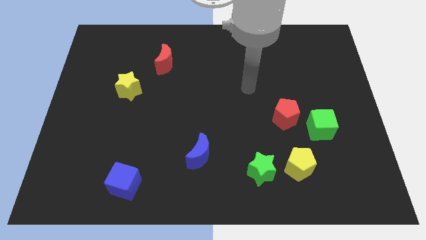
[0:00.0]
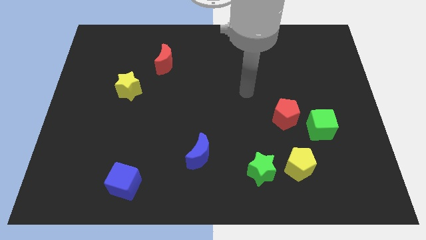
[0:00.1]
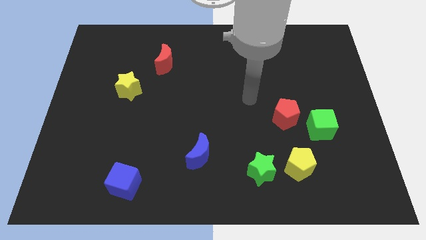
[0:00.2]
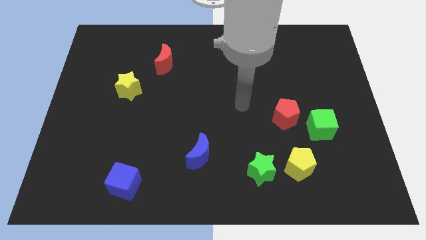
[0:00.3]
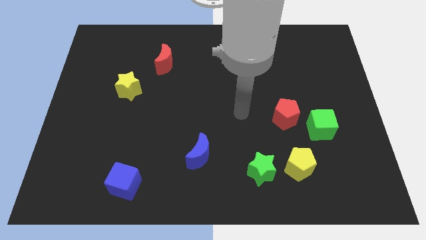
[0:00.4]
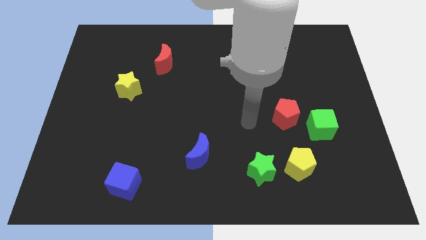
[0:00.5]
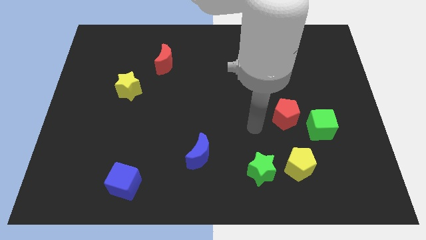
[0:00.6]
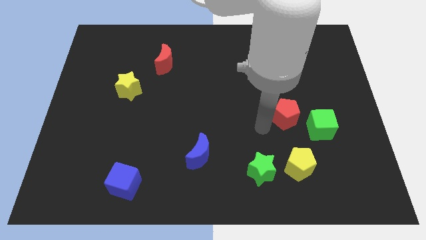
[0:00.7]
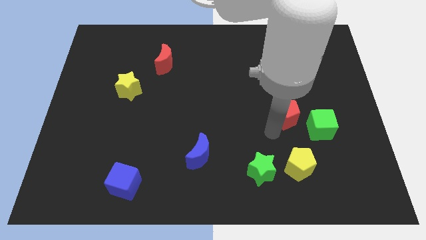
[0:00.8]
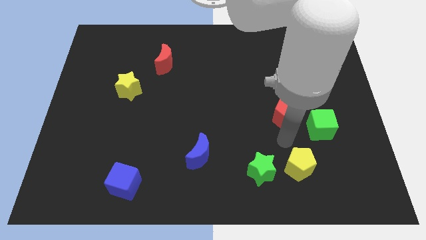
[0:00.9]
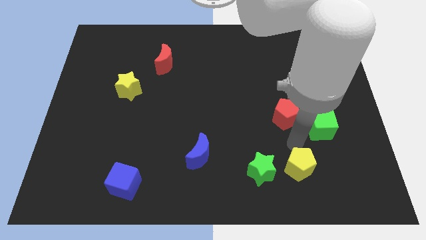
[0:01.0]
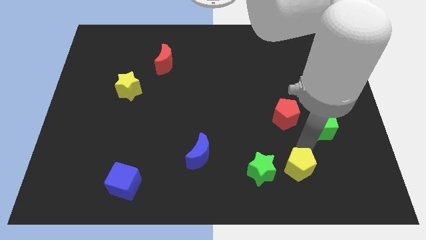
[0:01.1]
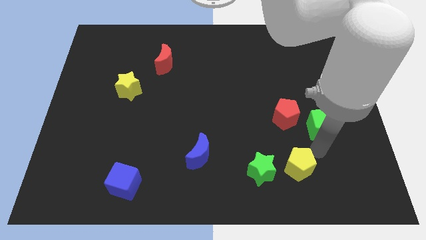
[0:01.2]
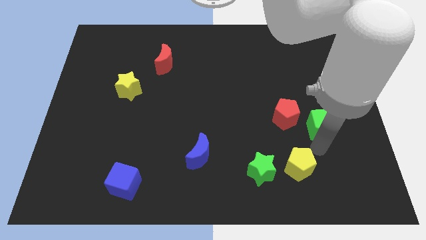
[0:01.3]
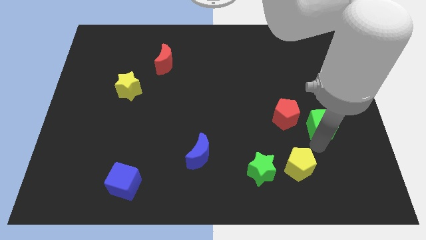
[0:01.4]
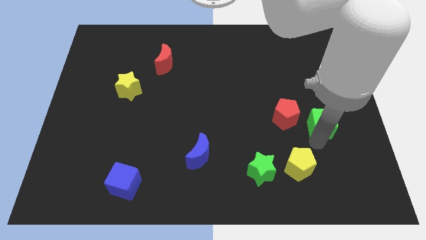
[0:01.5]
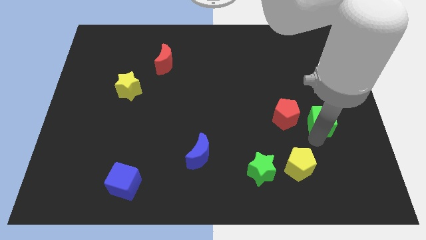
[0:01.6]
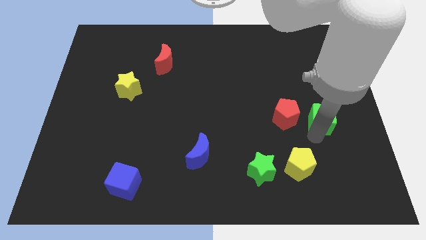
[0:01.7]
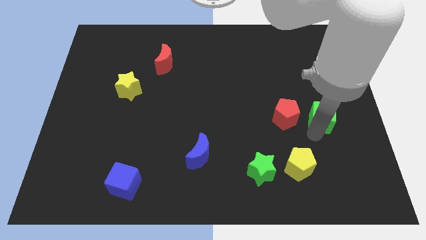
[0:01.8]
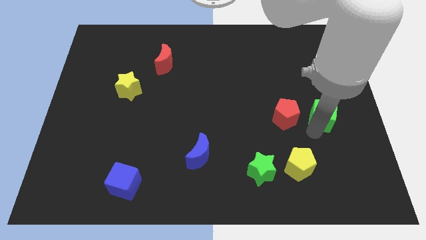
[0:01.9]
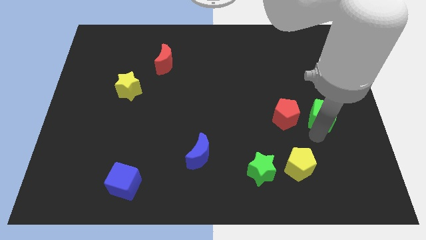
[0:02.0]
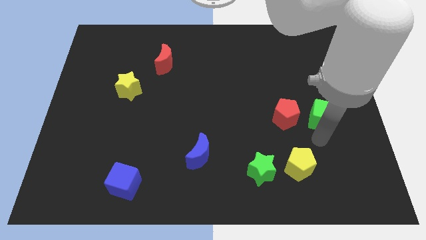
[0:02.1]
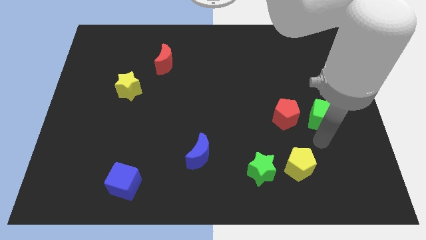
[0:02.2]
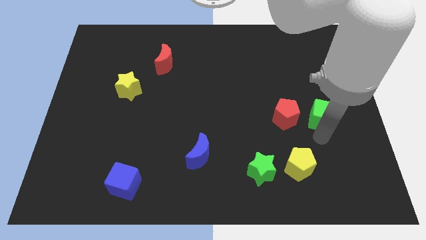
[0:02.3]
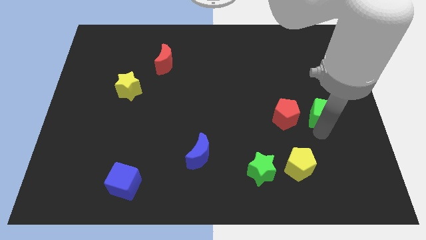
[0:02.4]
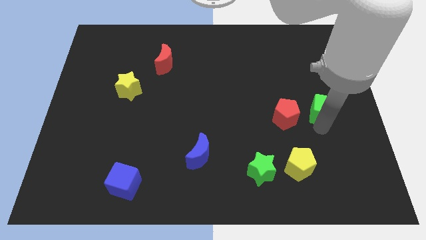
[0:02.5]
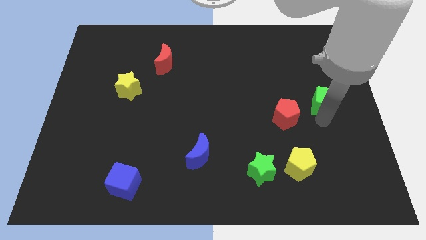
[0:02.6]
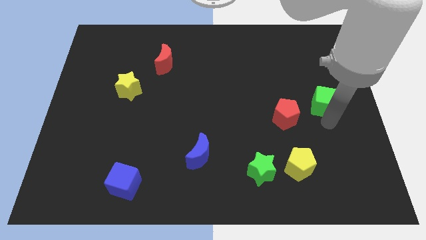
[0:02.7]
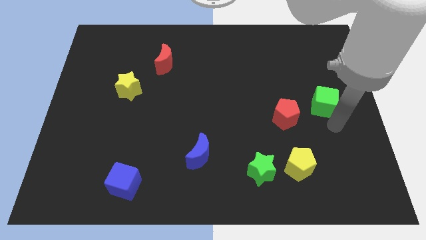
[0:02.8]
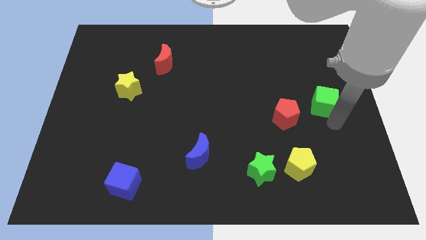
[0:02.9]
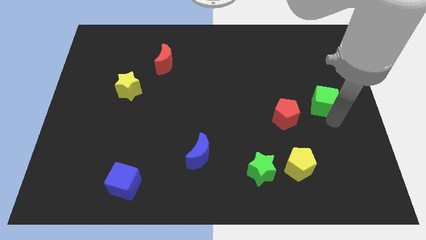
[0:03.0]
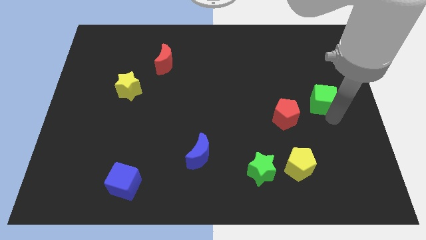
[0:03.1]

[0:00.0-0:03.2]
slightly move the green cube upwards

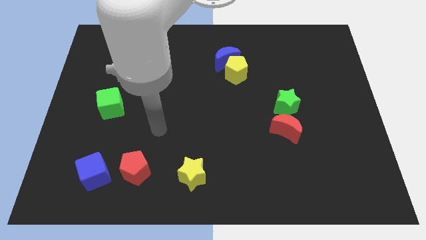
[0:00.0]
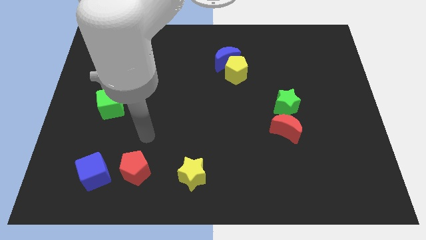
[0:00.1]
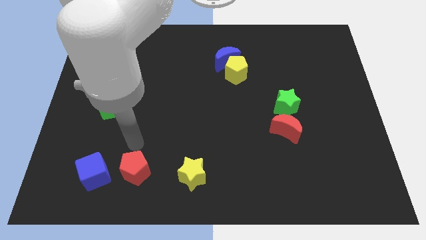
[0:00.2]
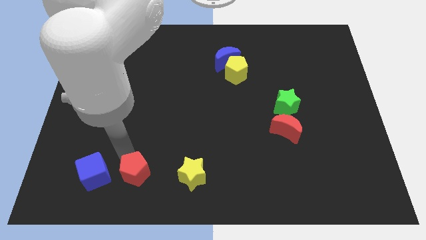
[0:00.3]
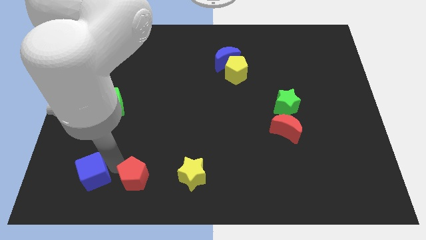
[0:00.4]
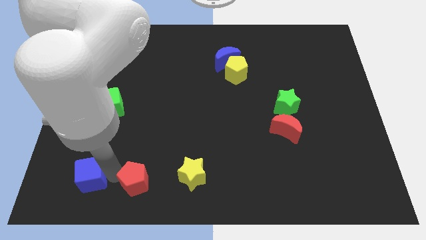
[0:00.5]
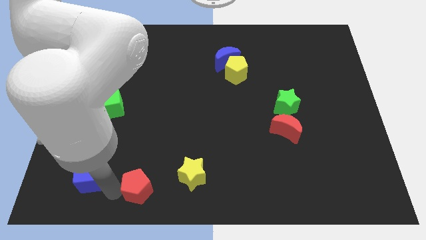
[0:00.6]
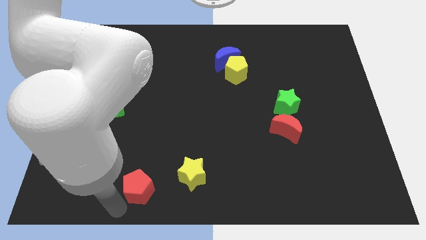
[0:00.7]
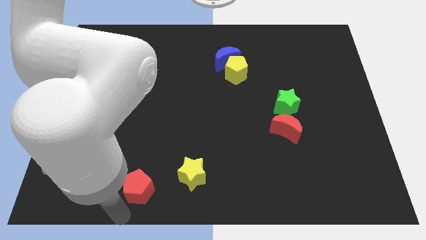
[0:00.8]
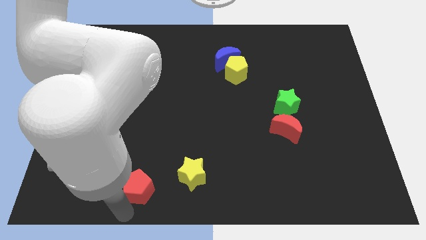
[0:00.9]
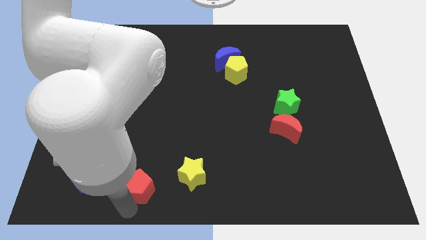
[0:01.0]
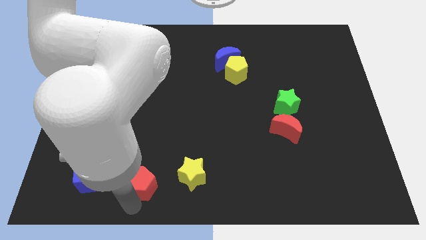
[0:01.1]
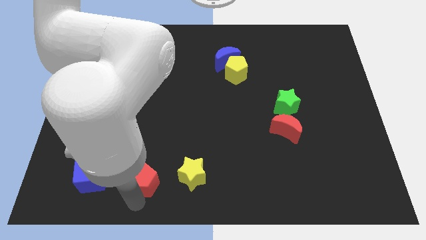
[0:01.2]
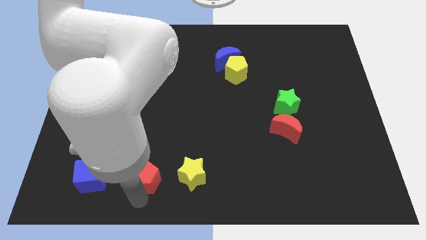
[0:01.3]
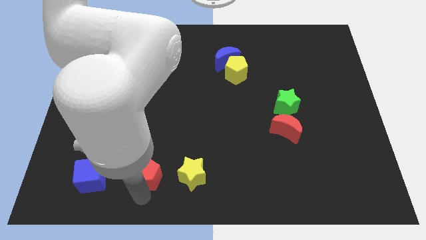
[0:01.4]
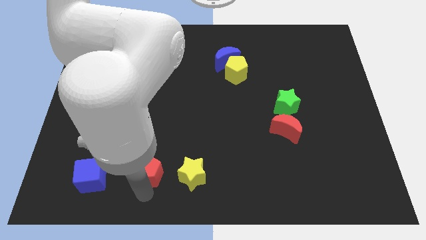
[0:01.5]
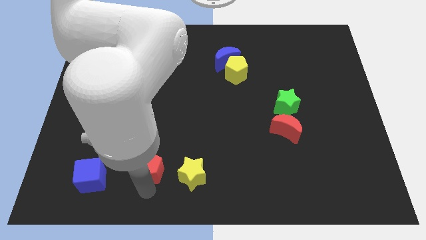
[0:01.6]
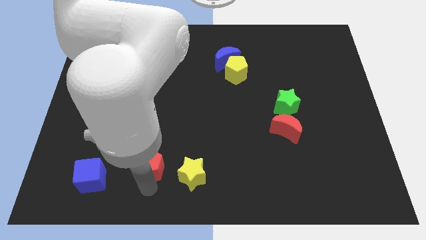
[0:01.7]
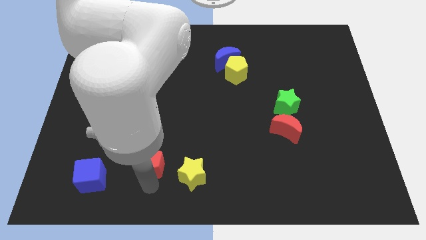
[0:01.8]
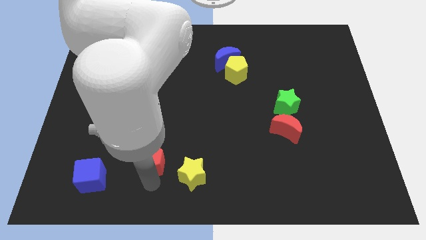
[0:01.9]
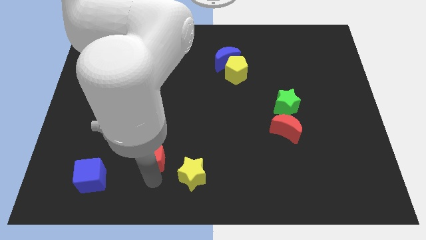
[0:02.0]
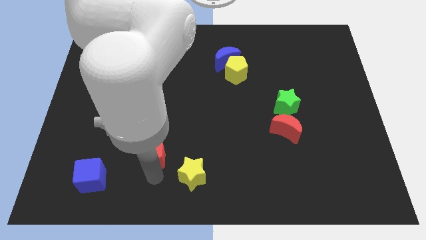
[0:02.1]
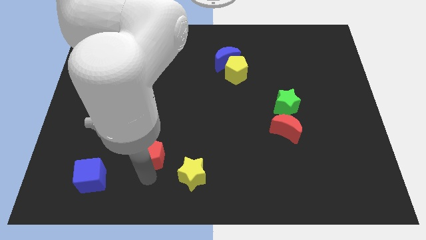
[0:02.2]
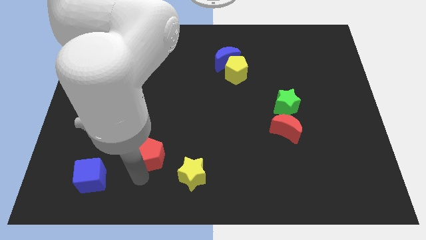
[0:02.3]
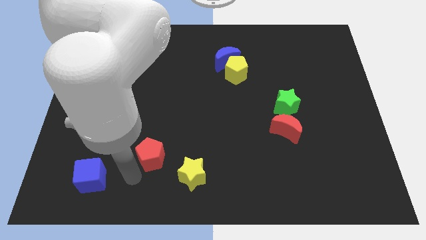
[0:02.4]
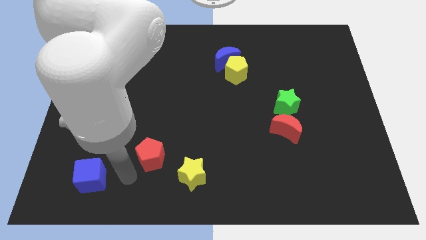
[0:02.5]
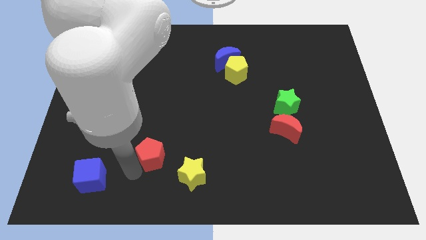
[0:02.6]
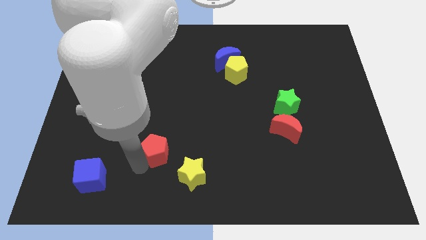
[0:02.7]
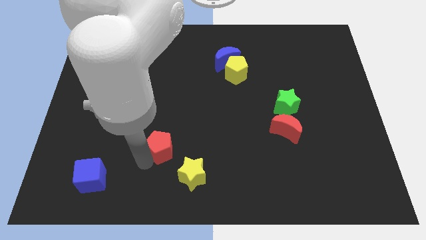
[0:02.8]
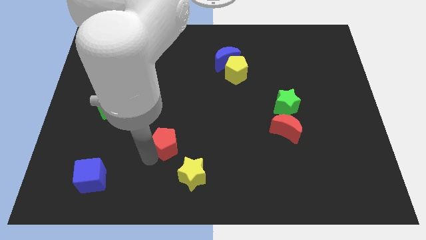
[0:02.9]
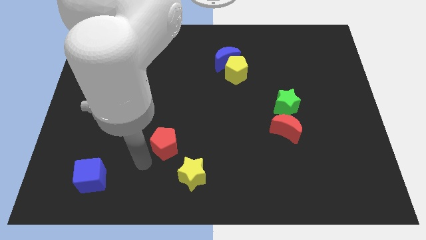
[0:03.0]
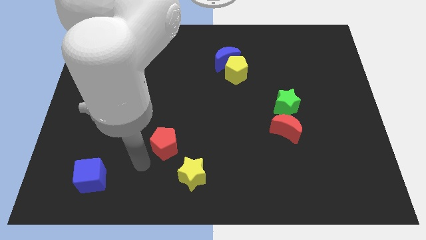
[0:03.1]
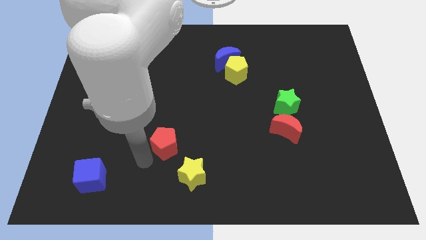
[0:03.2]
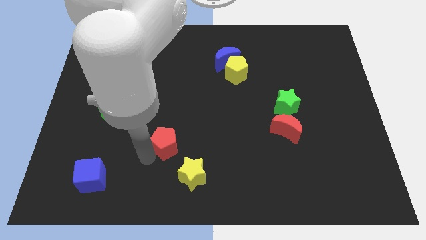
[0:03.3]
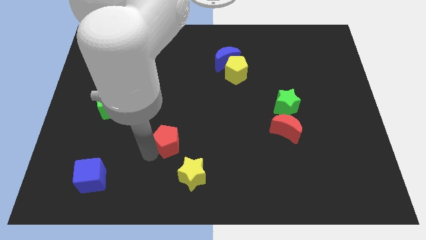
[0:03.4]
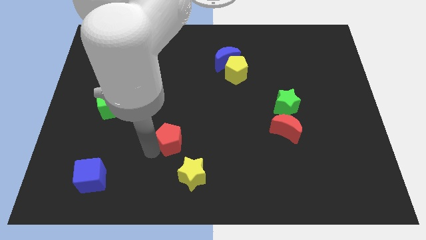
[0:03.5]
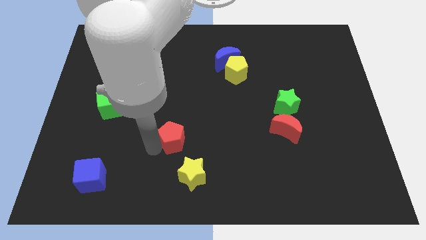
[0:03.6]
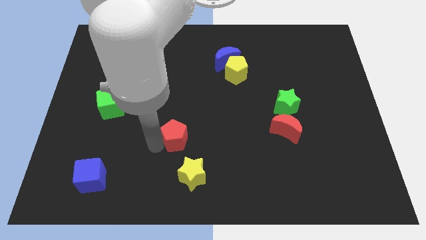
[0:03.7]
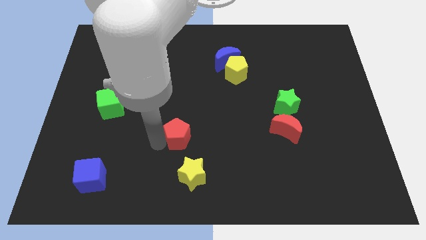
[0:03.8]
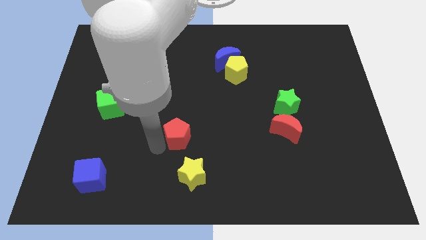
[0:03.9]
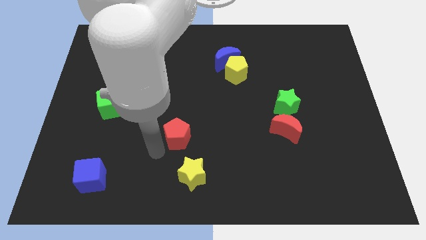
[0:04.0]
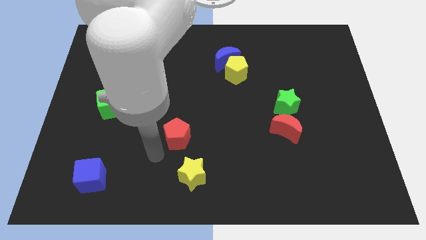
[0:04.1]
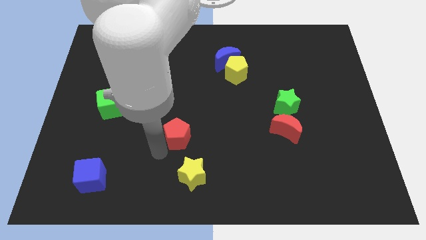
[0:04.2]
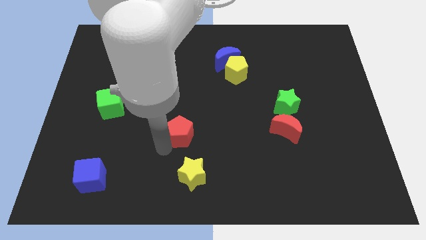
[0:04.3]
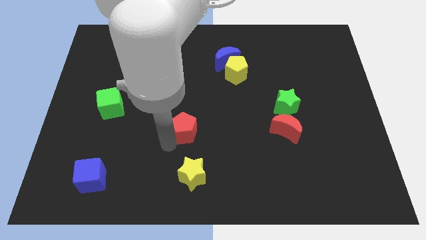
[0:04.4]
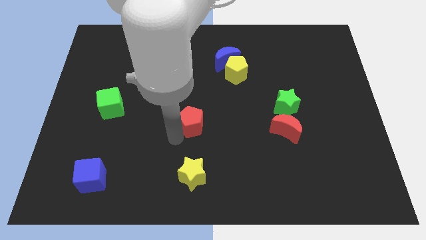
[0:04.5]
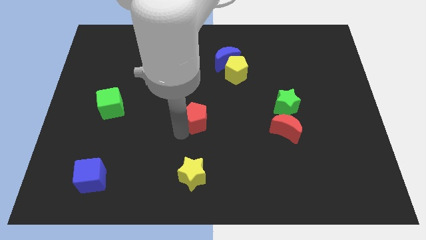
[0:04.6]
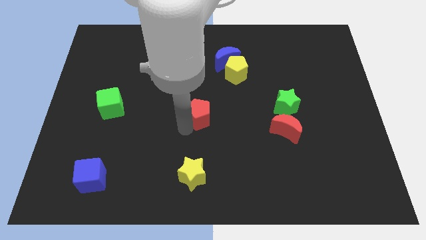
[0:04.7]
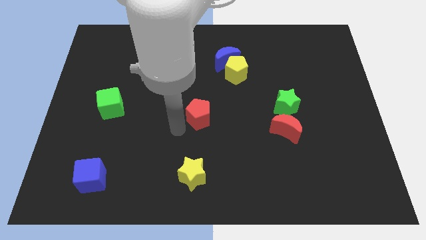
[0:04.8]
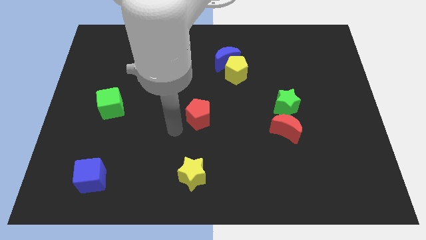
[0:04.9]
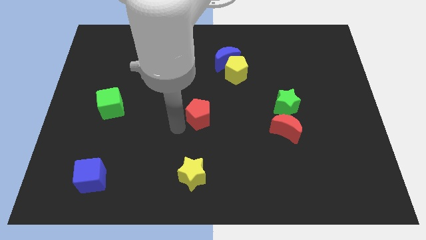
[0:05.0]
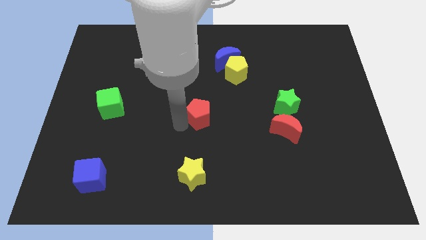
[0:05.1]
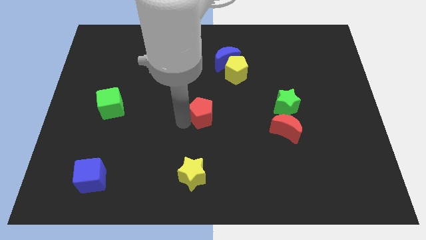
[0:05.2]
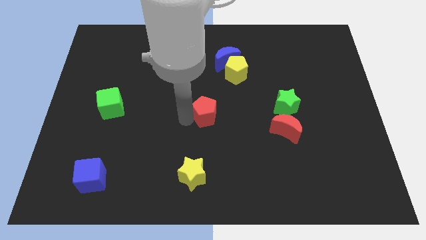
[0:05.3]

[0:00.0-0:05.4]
slide the red pentagon upwards and right diagonally
